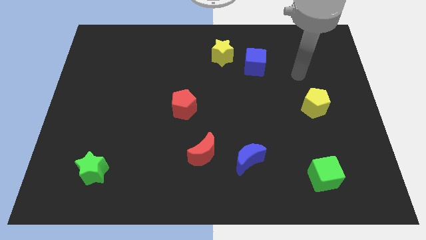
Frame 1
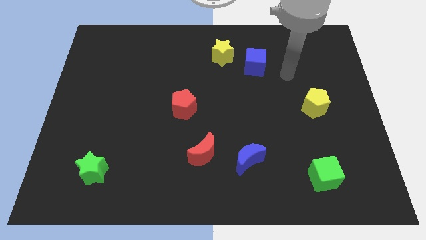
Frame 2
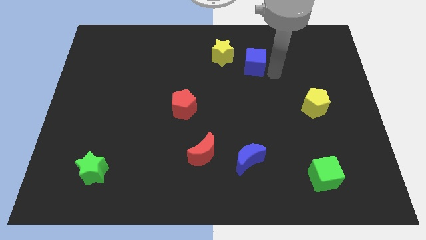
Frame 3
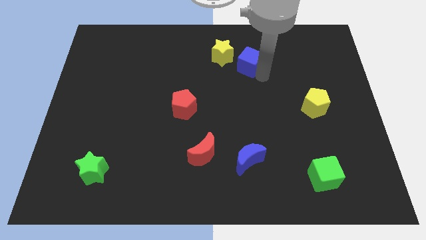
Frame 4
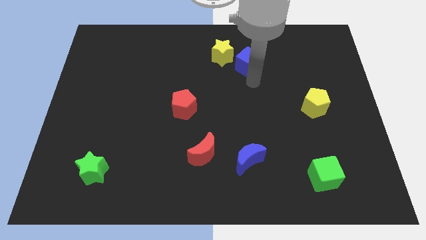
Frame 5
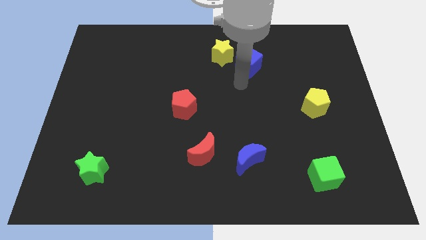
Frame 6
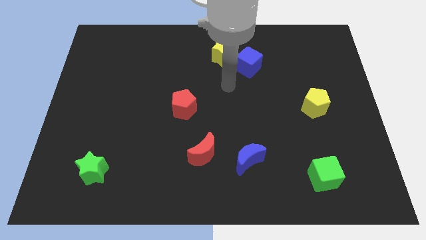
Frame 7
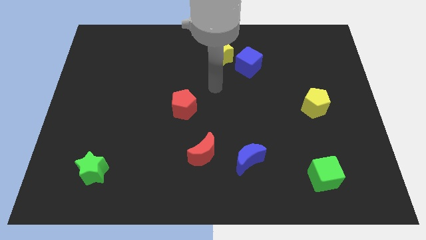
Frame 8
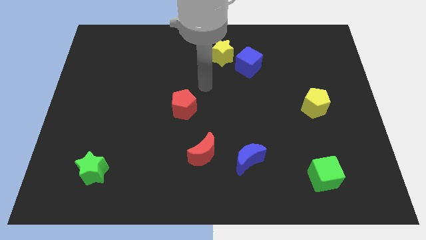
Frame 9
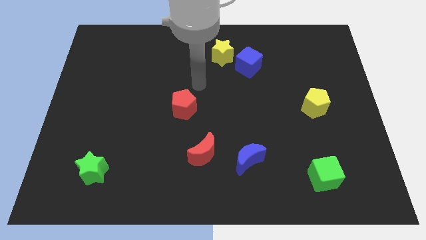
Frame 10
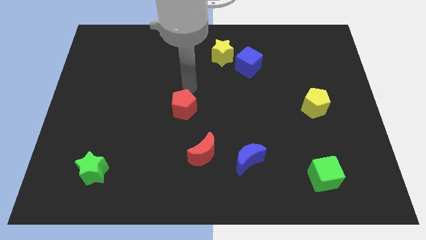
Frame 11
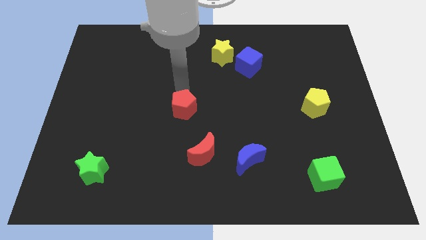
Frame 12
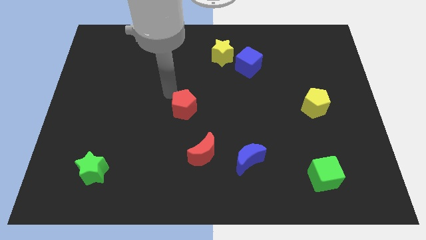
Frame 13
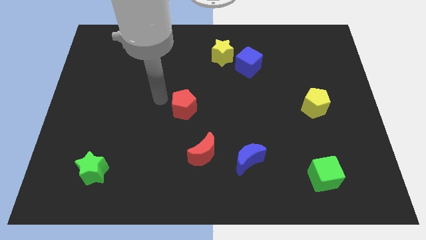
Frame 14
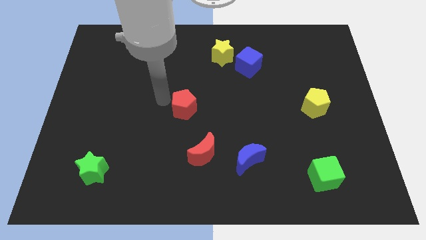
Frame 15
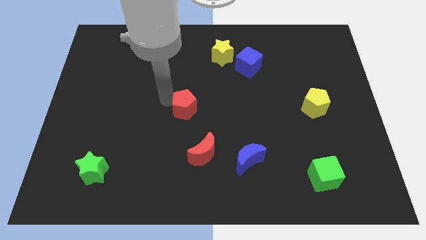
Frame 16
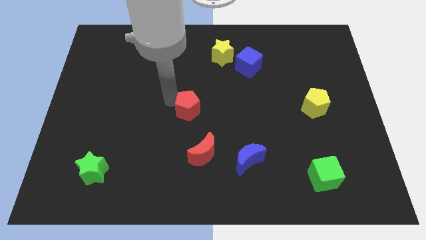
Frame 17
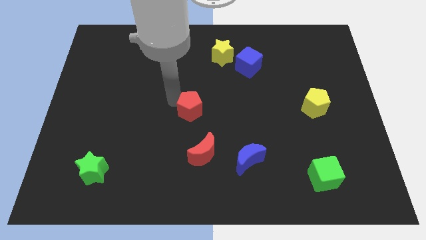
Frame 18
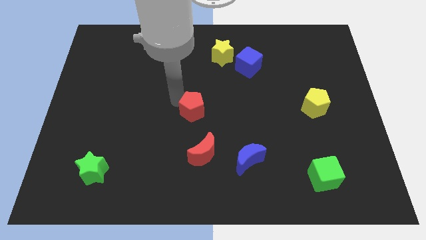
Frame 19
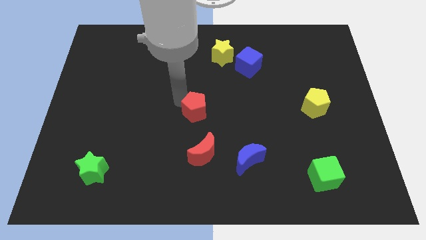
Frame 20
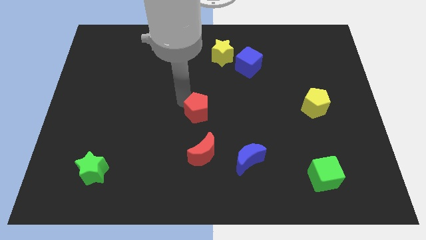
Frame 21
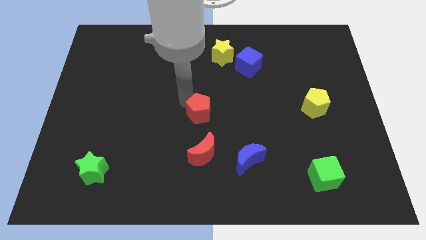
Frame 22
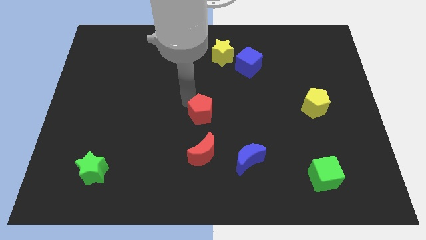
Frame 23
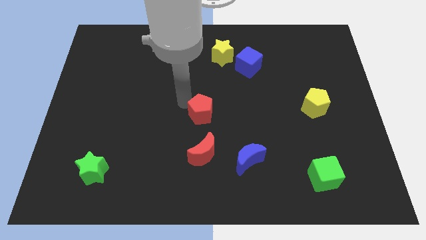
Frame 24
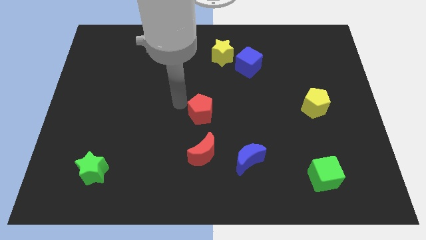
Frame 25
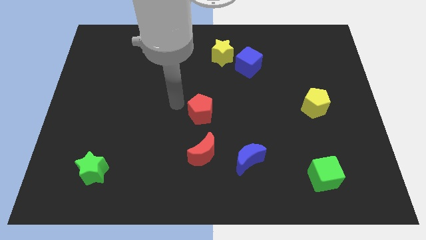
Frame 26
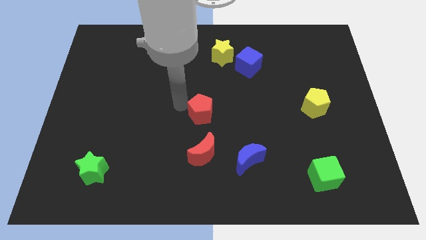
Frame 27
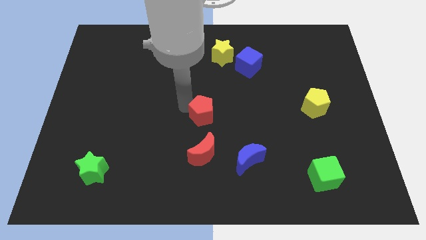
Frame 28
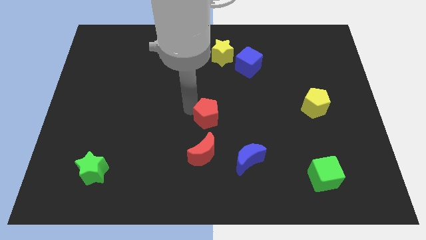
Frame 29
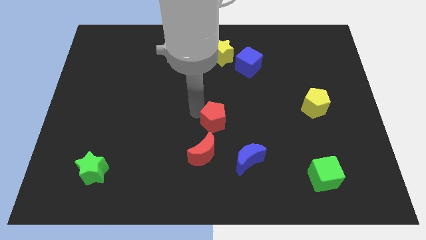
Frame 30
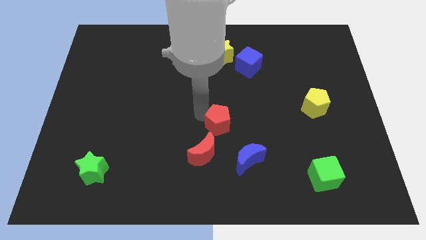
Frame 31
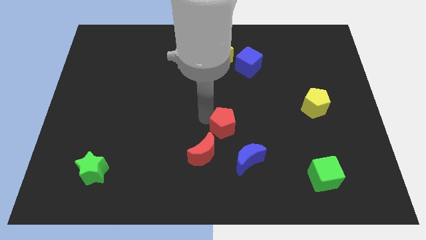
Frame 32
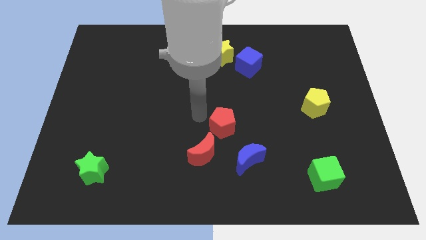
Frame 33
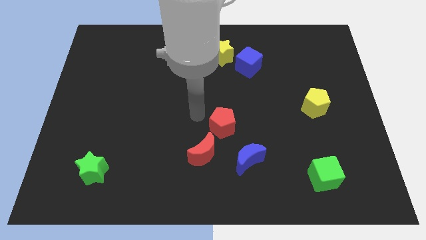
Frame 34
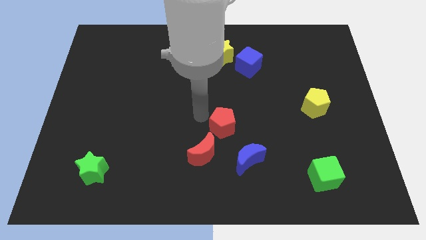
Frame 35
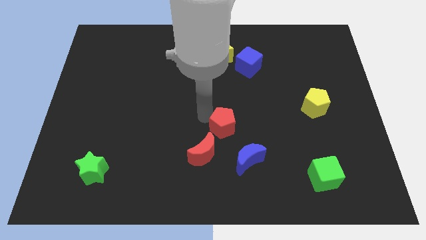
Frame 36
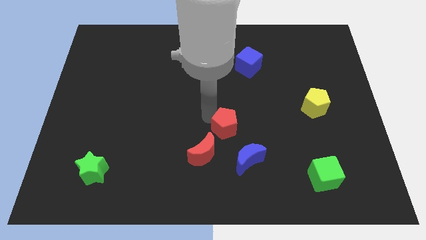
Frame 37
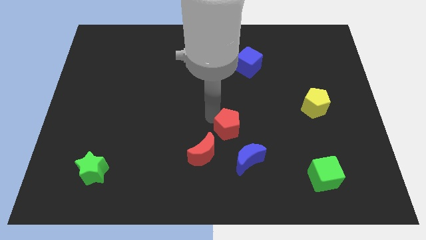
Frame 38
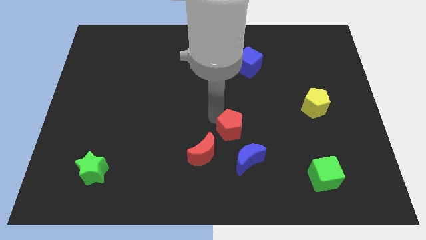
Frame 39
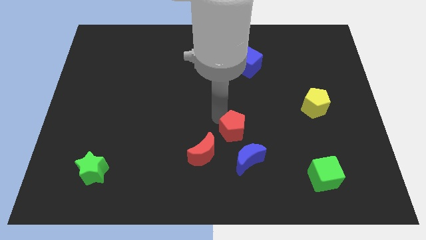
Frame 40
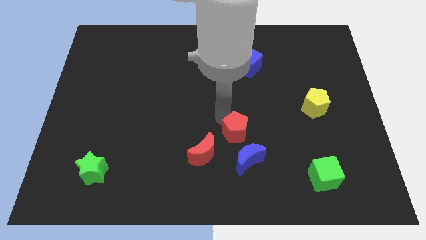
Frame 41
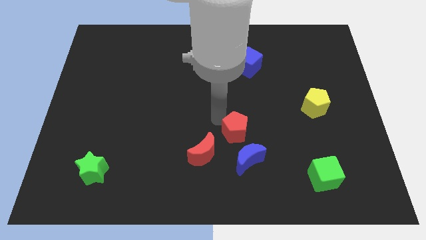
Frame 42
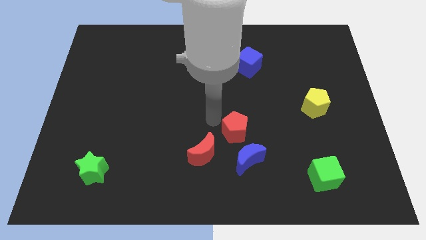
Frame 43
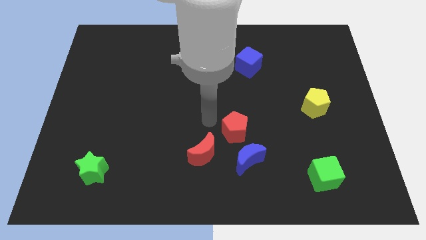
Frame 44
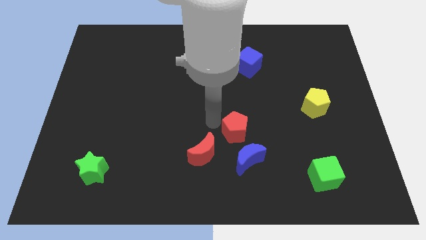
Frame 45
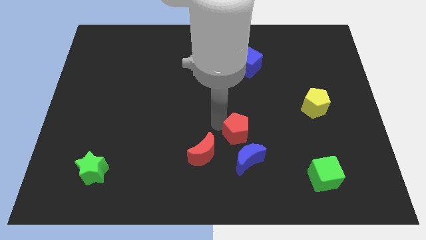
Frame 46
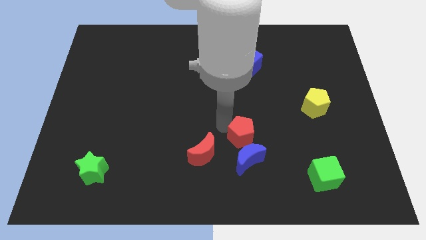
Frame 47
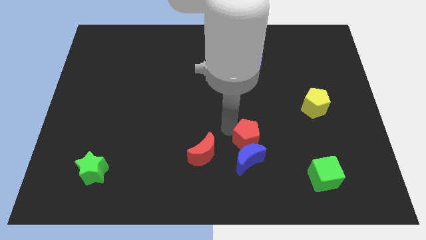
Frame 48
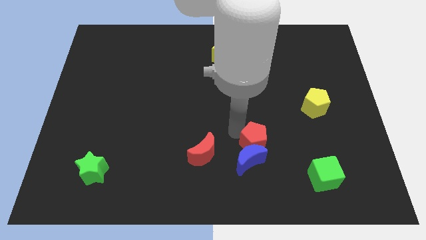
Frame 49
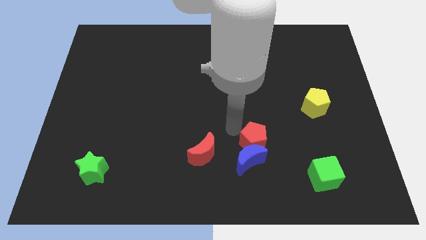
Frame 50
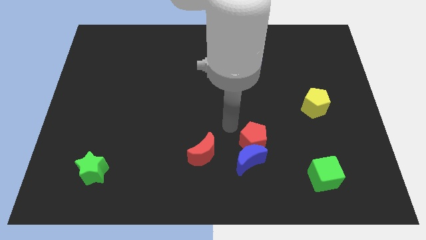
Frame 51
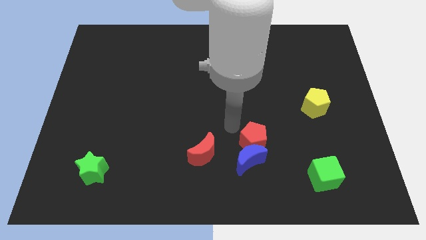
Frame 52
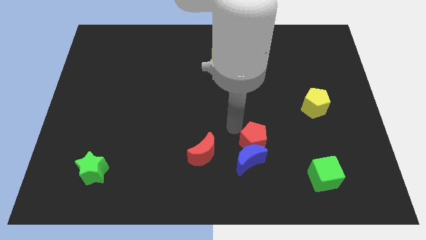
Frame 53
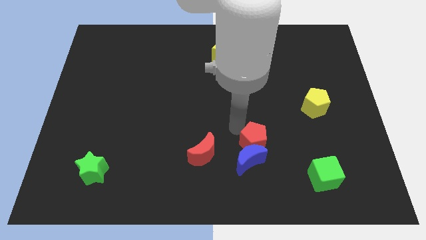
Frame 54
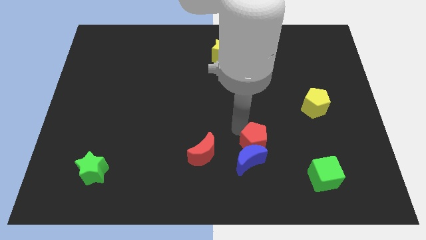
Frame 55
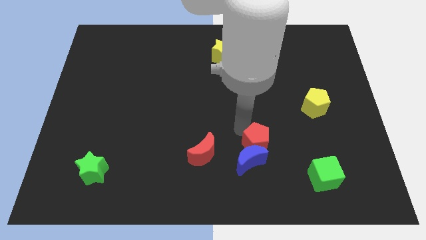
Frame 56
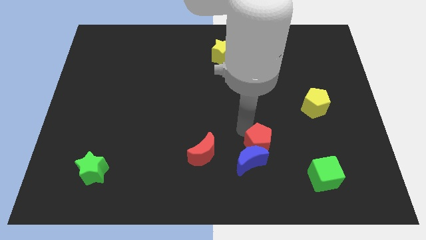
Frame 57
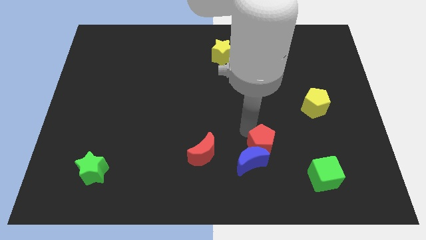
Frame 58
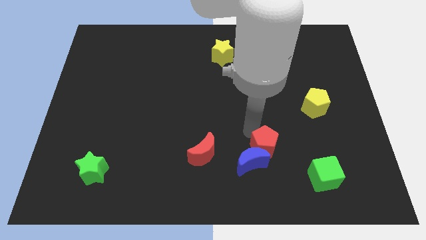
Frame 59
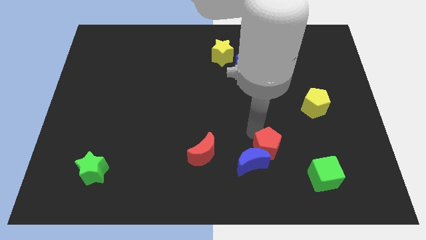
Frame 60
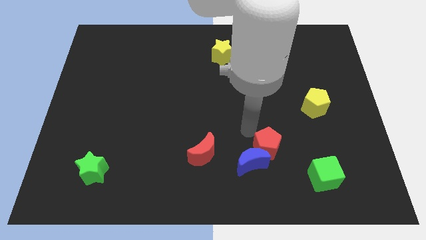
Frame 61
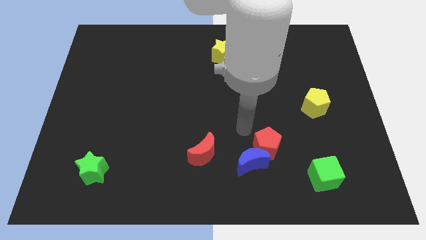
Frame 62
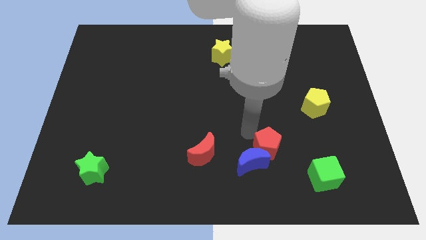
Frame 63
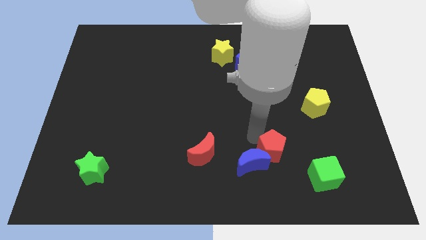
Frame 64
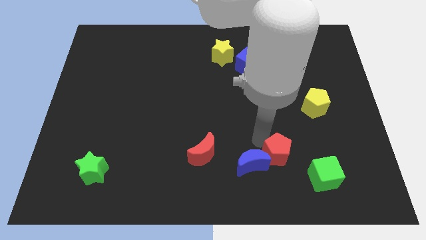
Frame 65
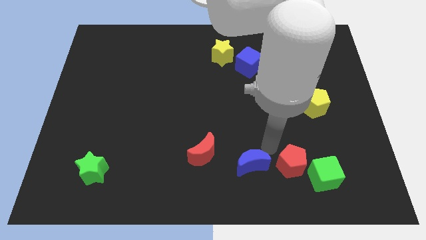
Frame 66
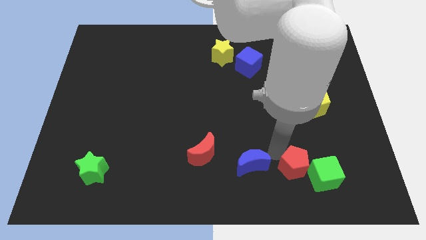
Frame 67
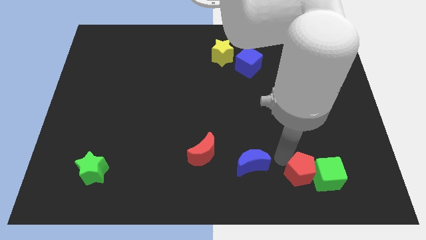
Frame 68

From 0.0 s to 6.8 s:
move the red pentagon next to the green cube

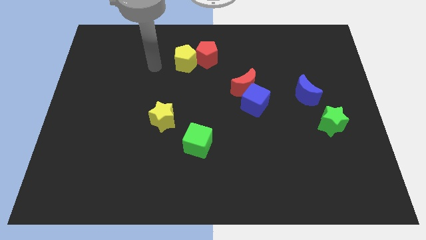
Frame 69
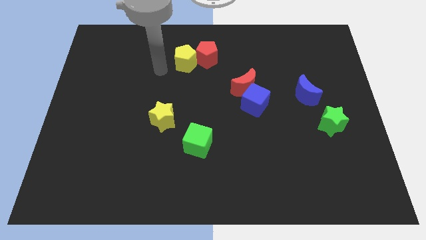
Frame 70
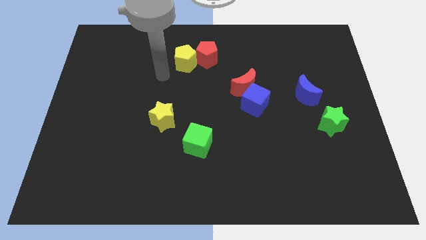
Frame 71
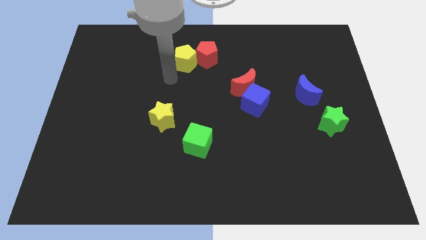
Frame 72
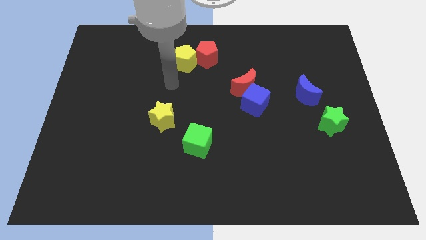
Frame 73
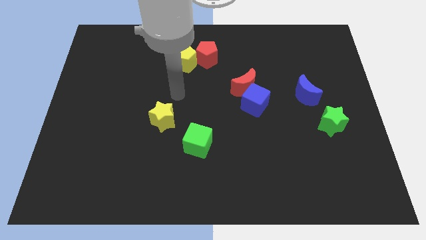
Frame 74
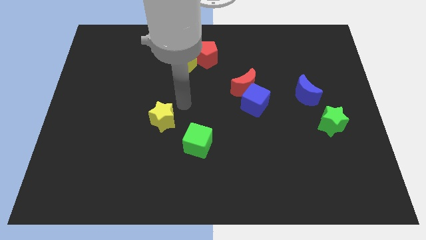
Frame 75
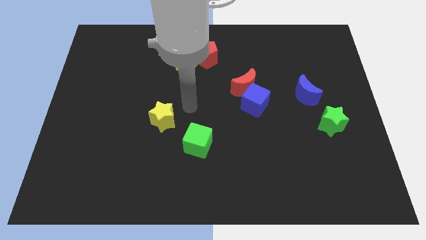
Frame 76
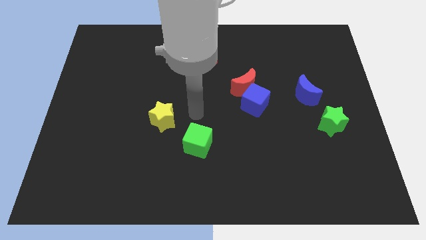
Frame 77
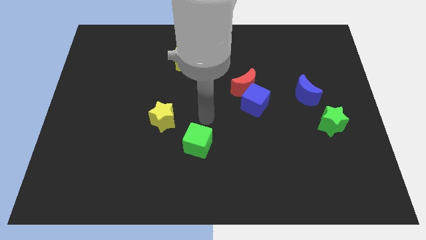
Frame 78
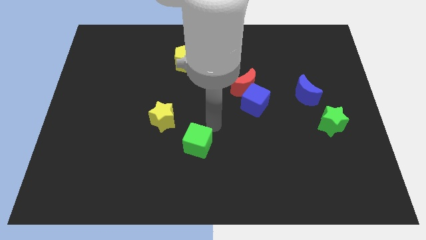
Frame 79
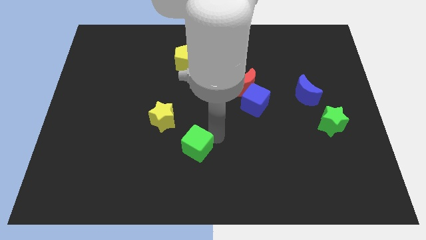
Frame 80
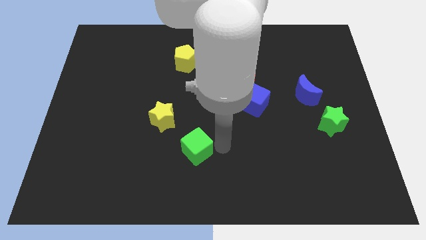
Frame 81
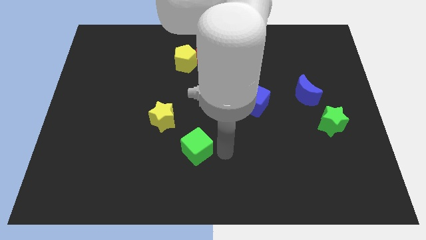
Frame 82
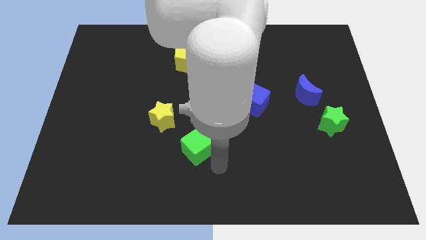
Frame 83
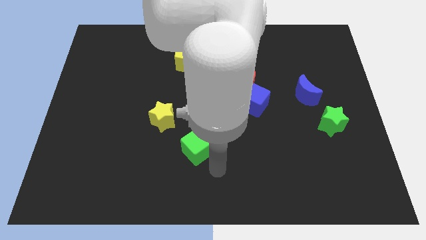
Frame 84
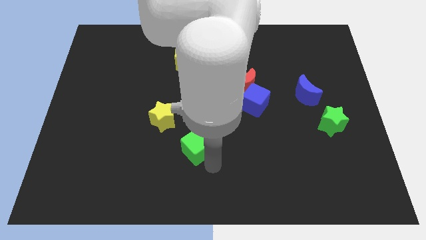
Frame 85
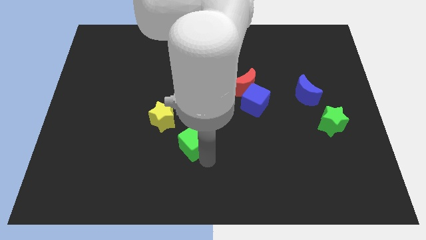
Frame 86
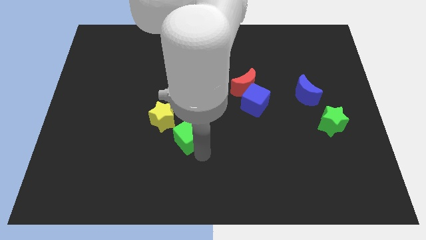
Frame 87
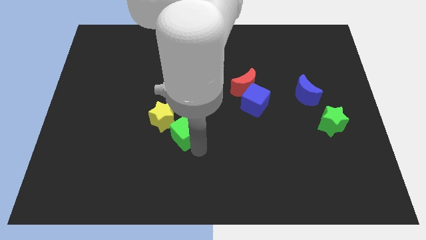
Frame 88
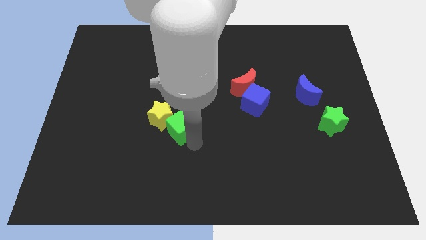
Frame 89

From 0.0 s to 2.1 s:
slide the green cube to the yellow star
